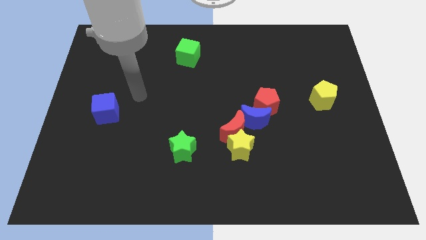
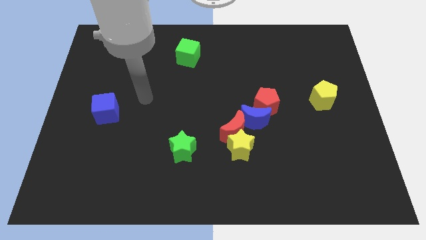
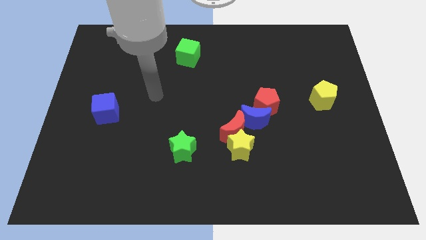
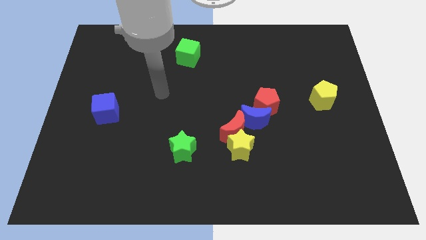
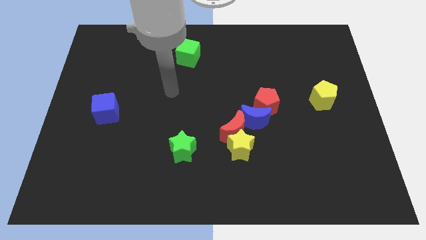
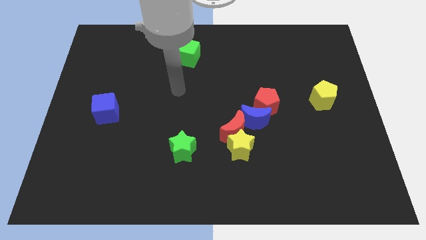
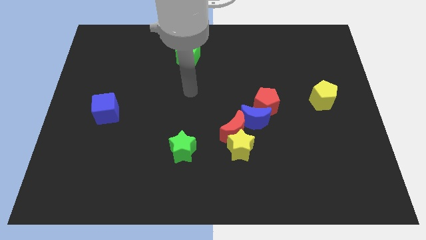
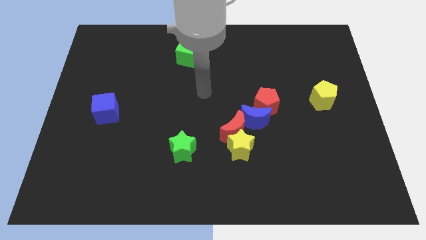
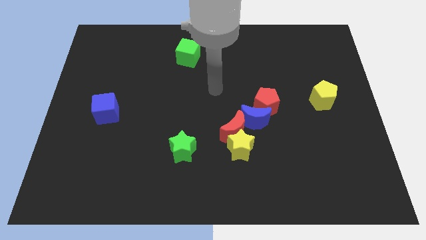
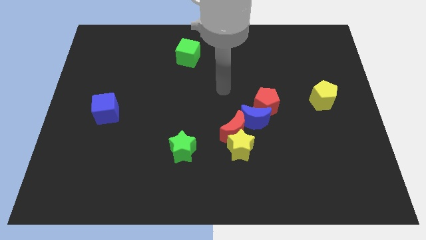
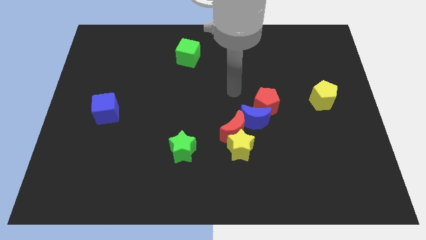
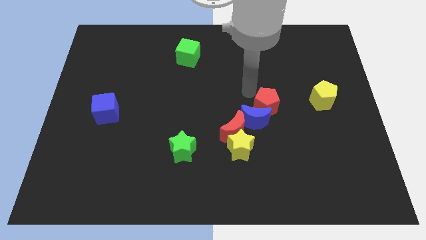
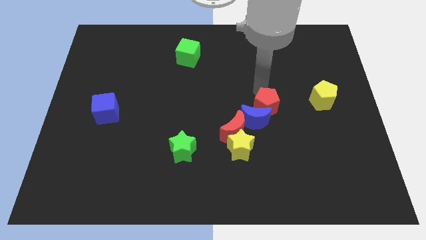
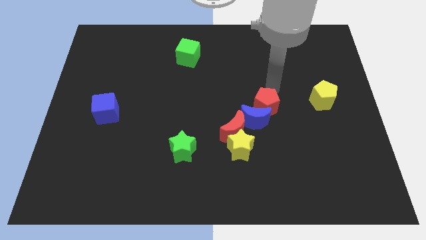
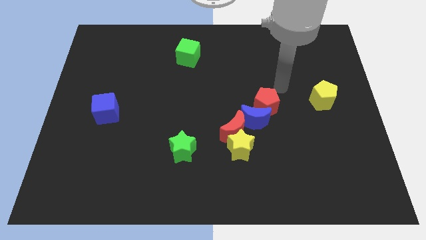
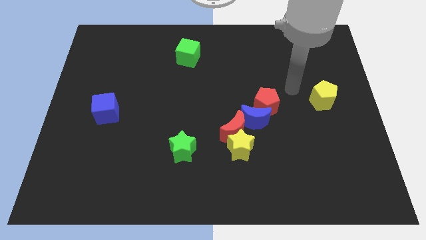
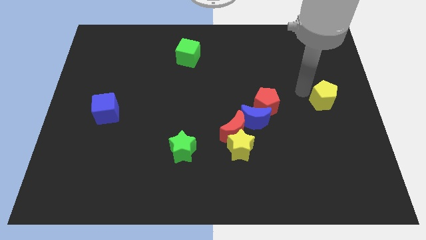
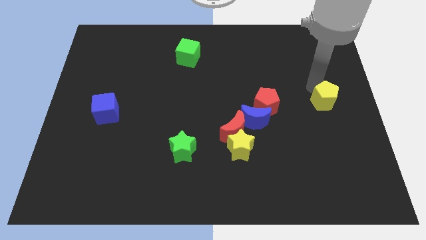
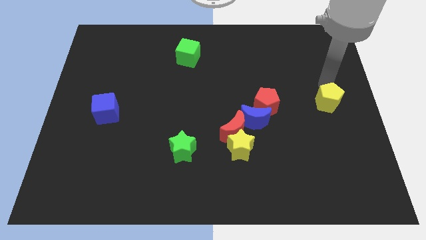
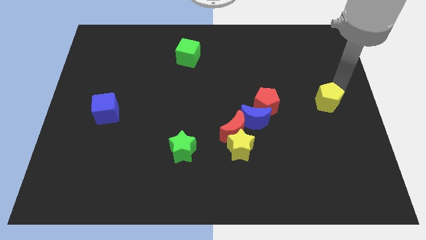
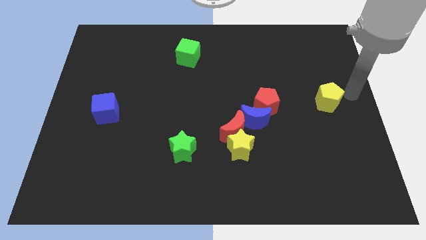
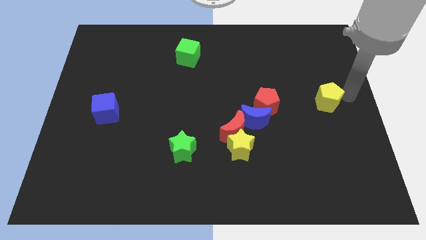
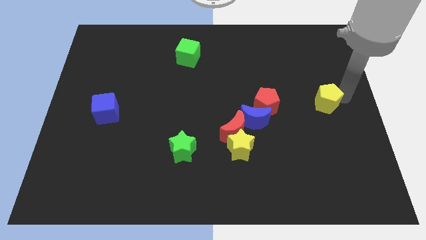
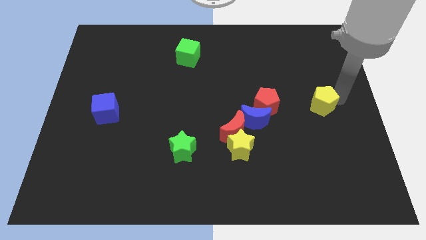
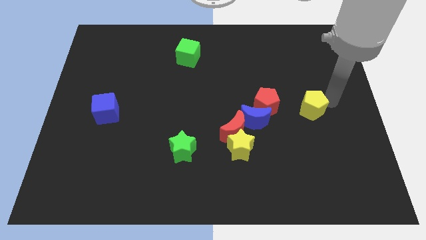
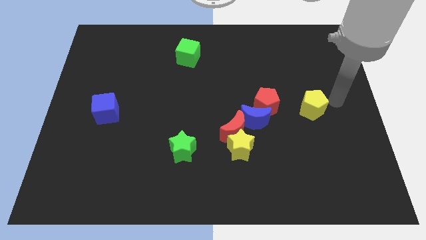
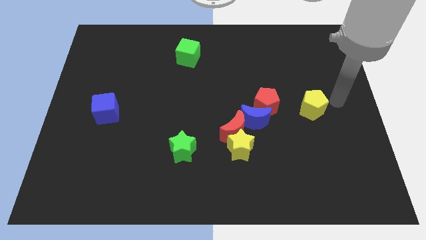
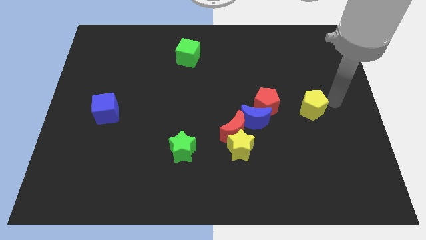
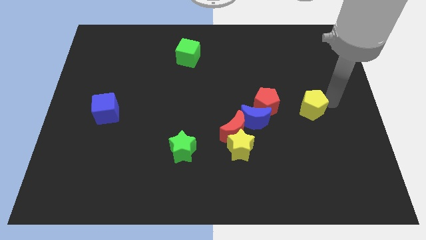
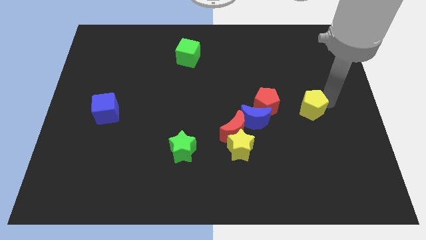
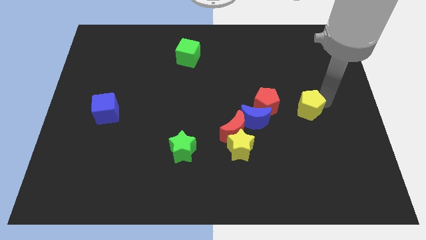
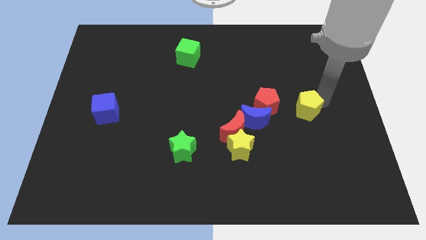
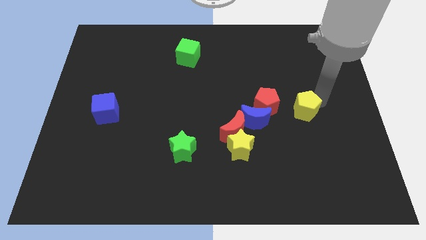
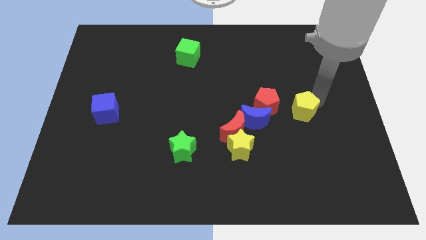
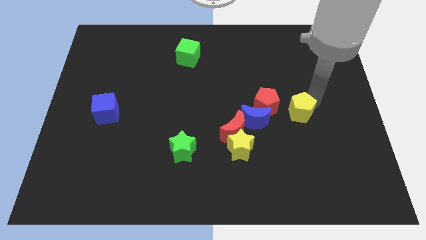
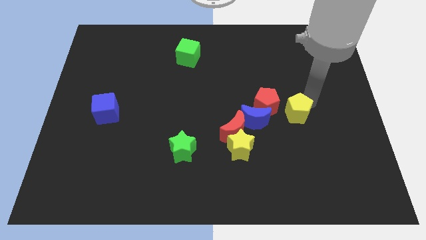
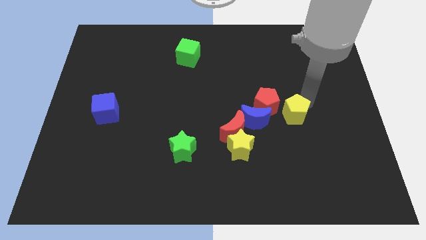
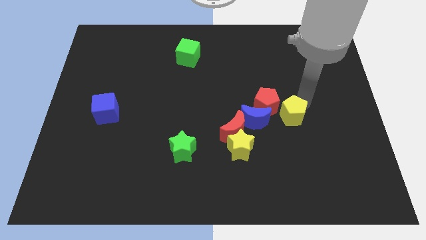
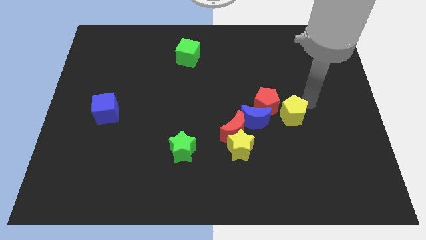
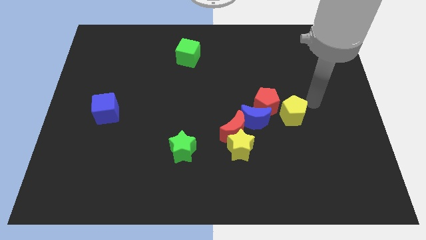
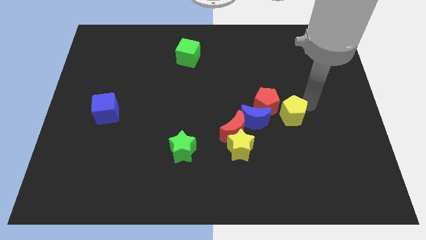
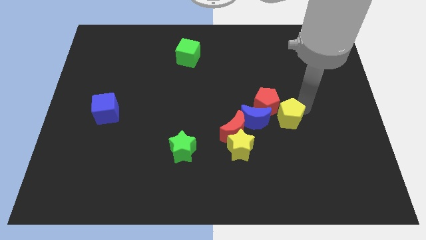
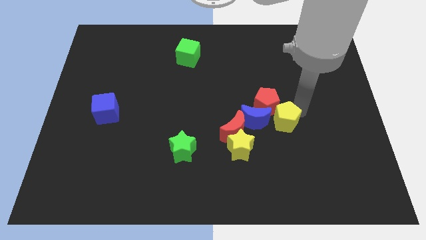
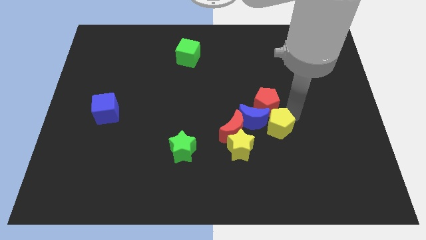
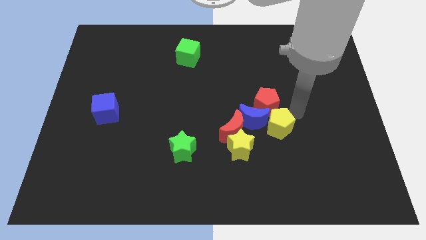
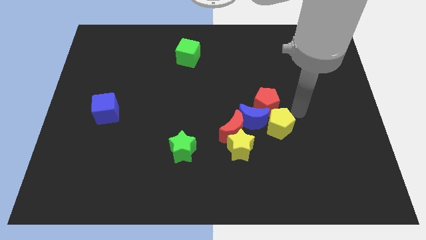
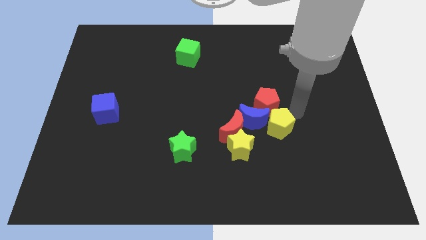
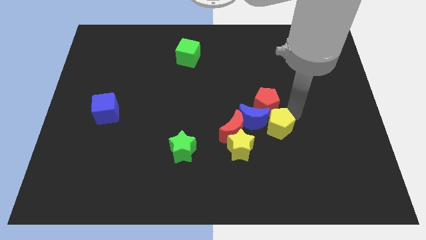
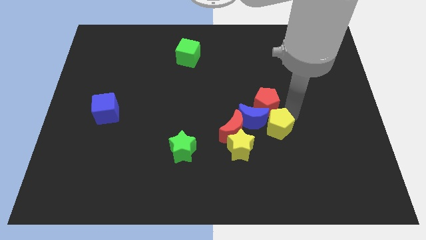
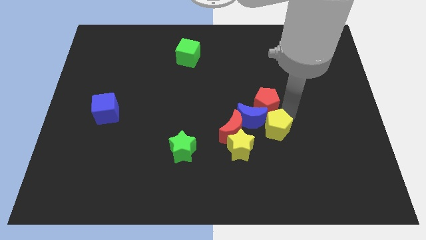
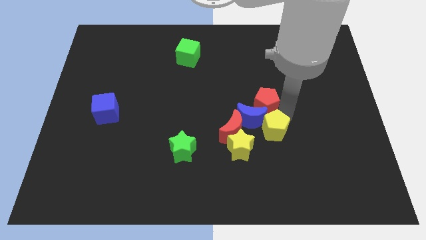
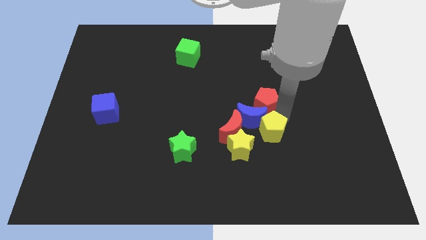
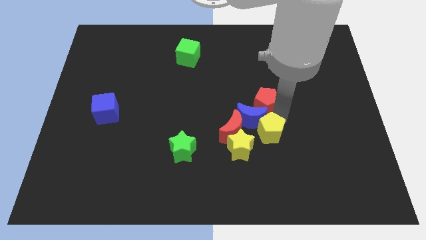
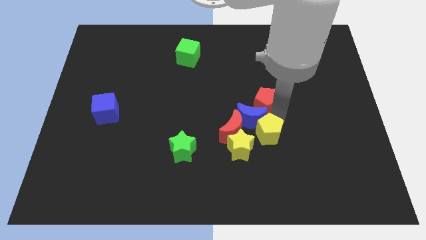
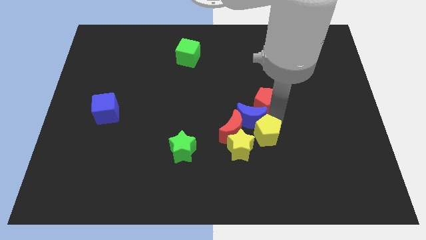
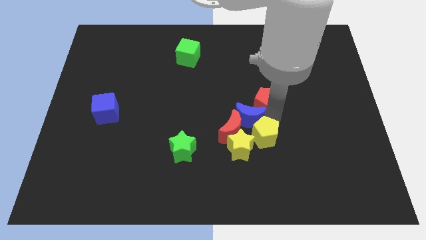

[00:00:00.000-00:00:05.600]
slide the yellow pentagon next to the yellow star

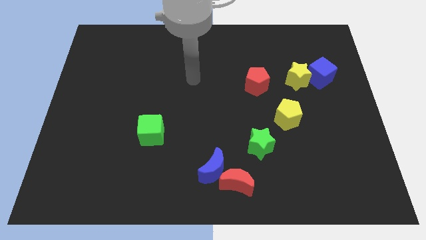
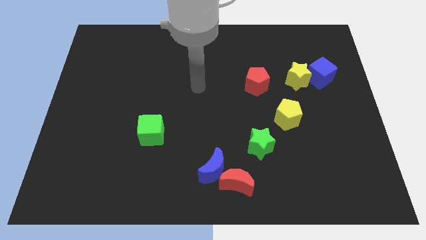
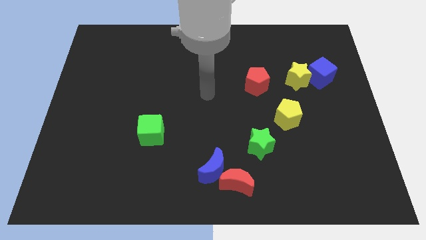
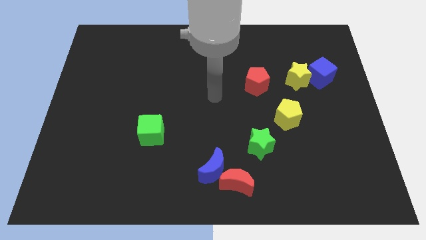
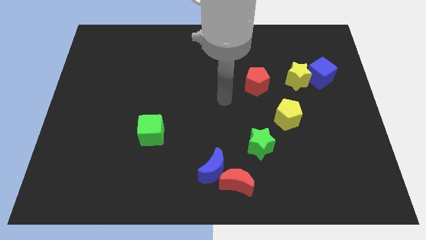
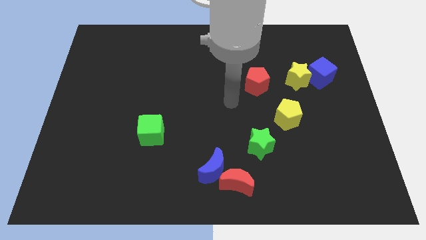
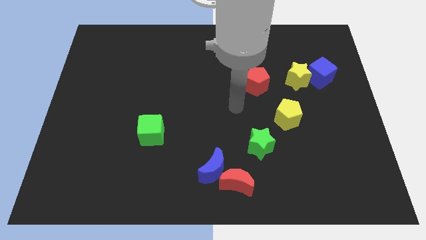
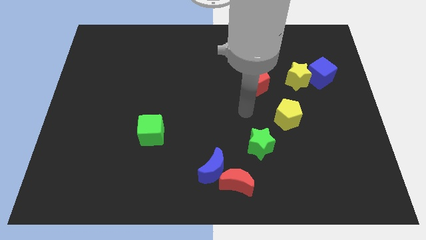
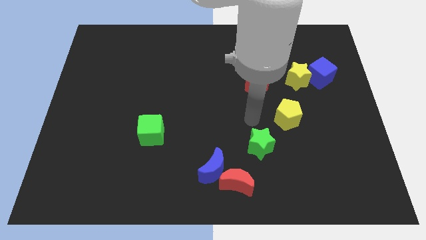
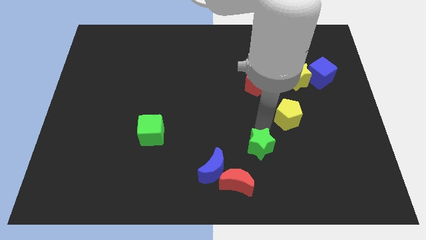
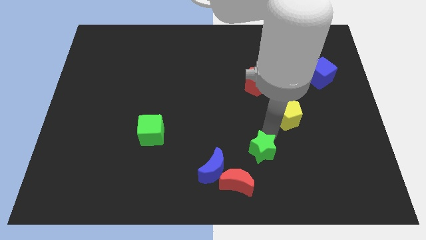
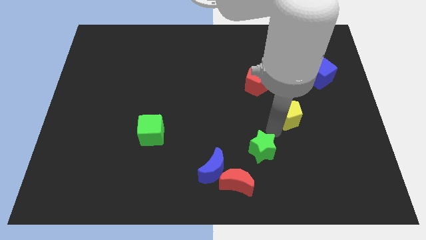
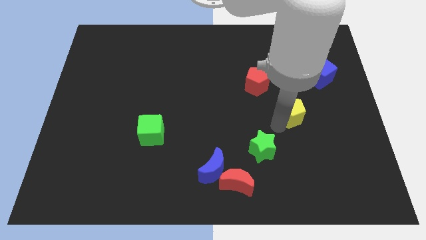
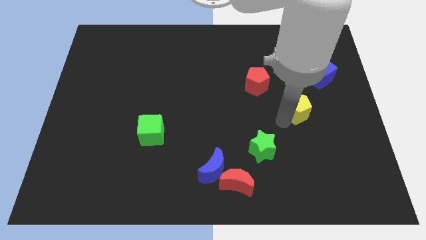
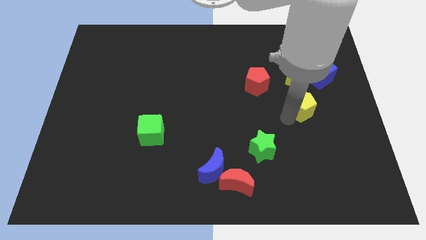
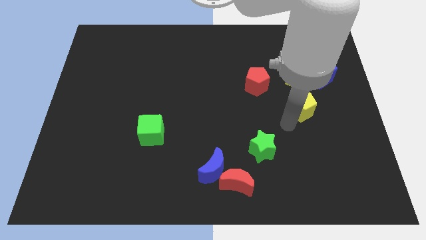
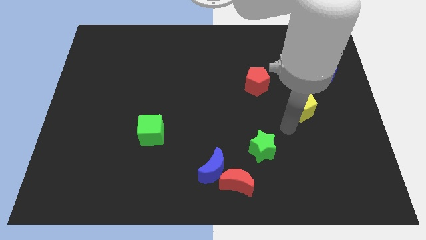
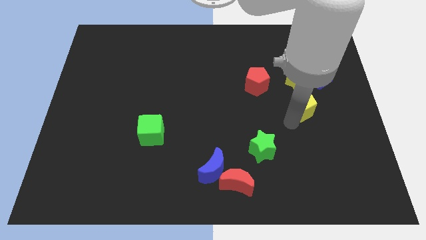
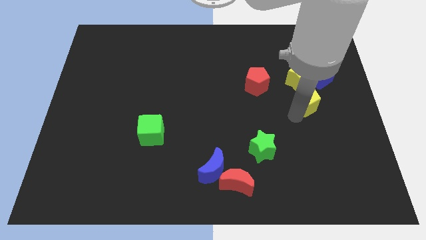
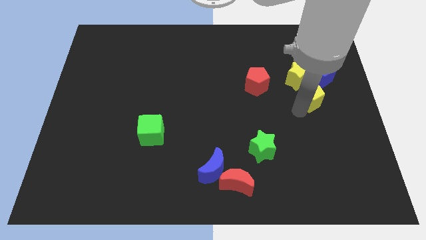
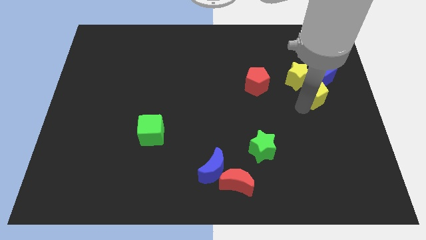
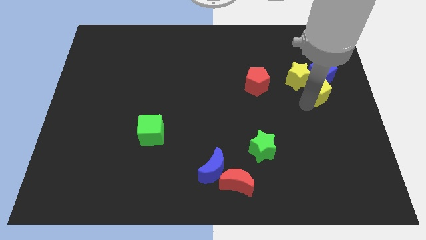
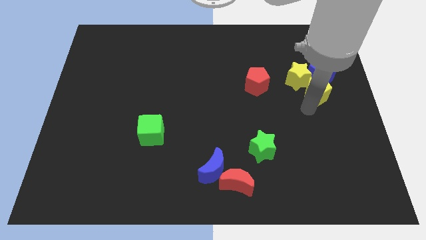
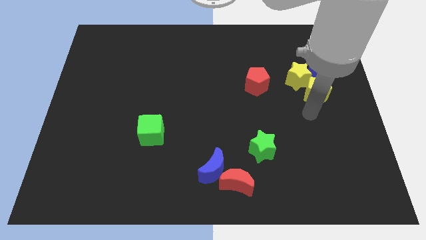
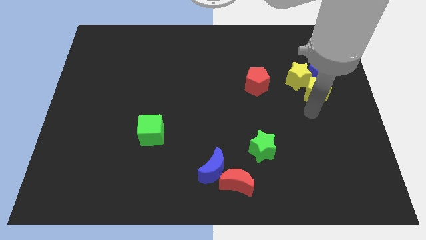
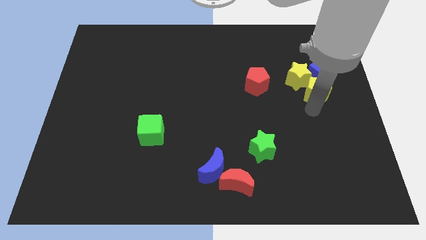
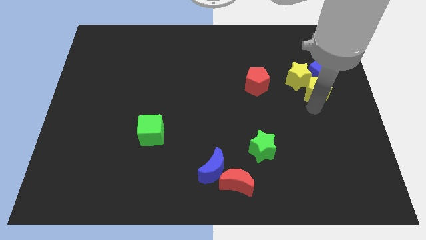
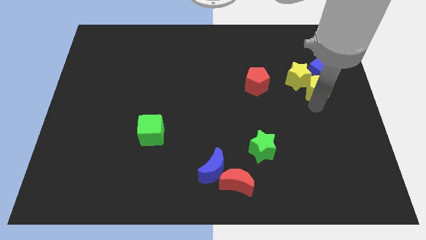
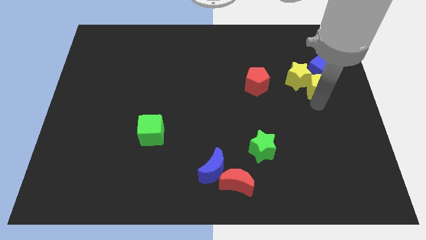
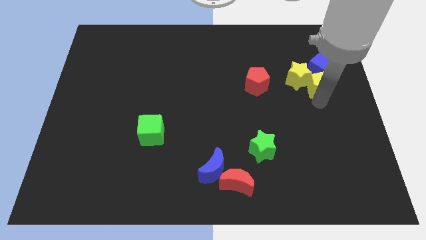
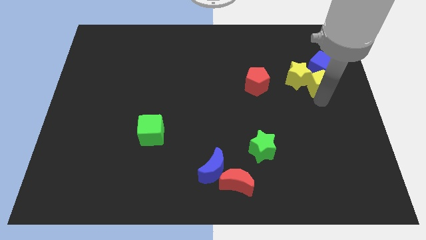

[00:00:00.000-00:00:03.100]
put the yellow pentagon next to the blue cube
